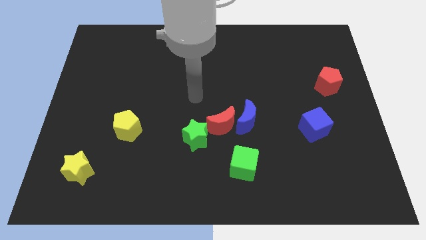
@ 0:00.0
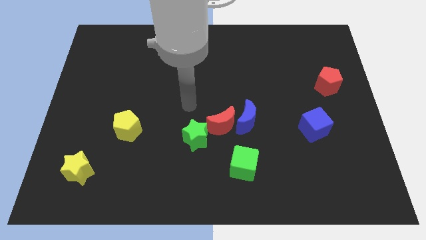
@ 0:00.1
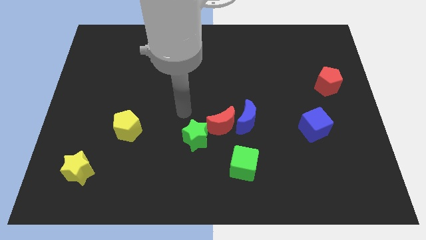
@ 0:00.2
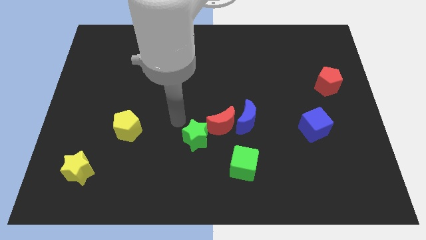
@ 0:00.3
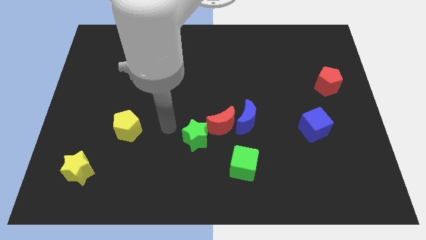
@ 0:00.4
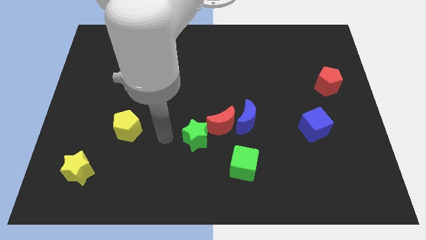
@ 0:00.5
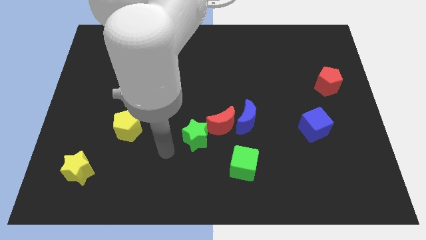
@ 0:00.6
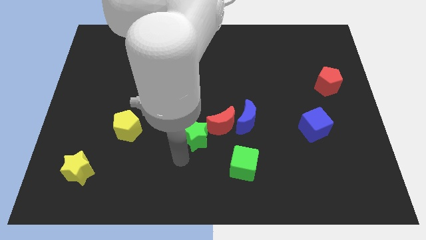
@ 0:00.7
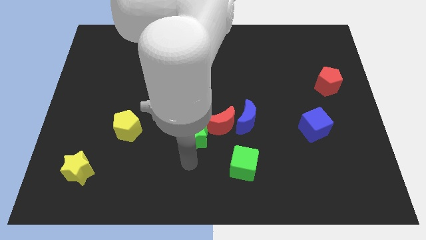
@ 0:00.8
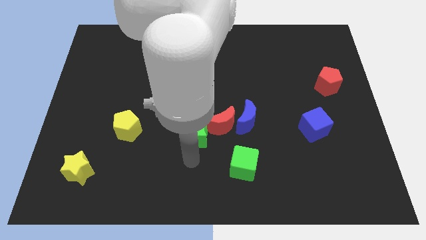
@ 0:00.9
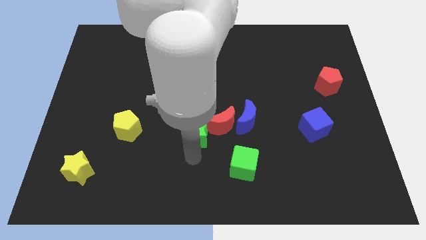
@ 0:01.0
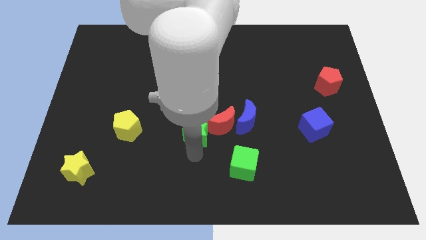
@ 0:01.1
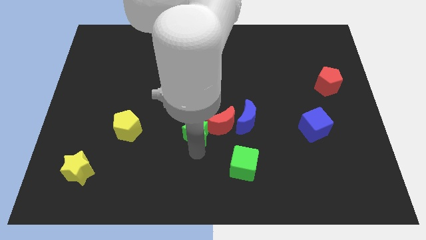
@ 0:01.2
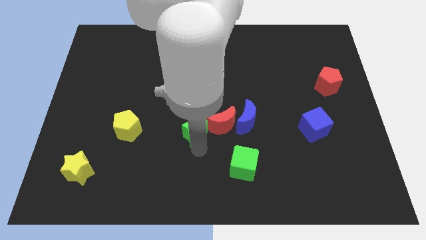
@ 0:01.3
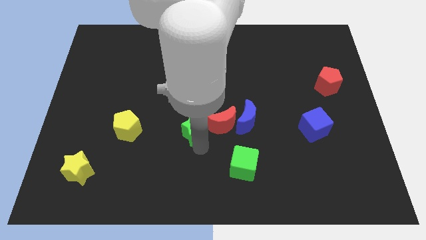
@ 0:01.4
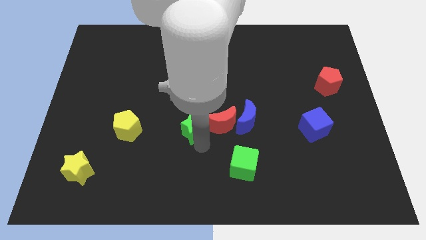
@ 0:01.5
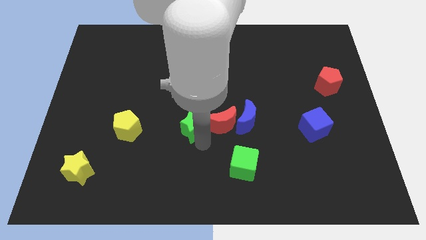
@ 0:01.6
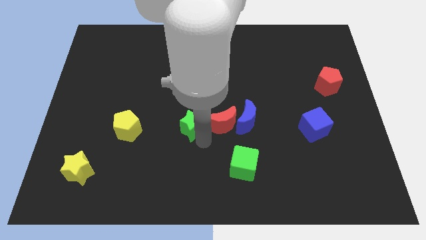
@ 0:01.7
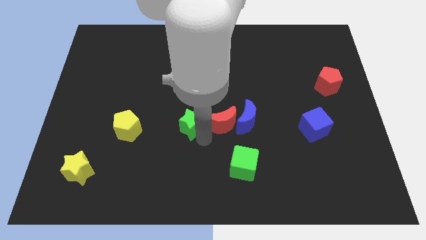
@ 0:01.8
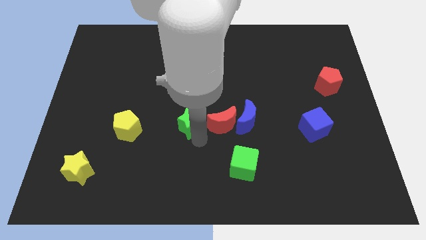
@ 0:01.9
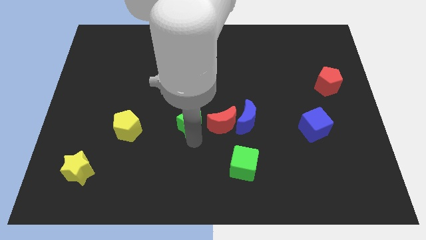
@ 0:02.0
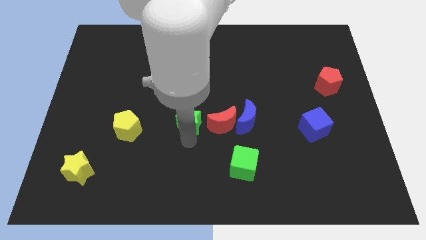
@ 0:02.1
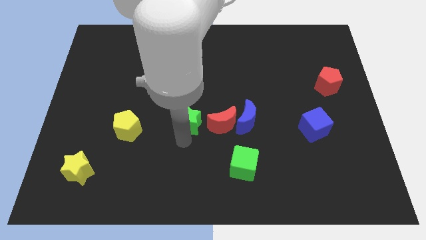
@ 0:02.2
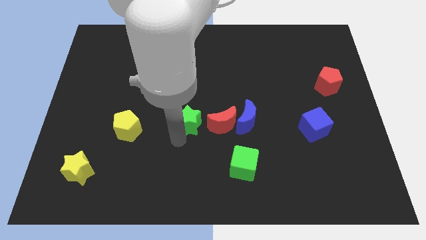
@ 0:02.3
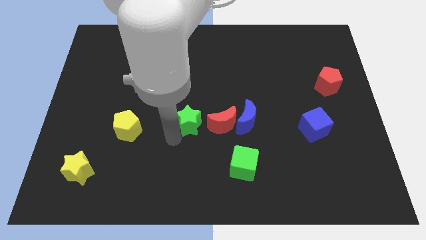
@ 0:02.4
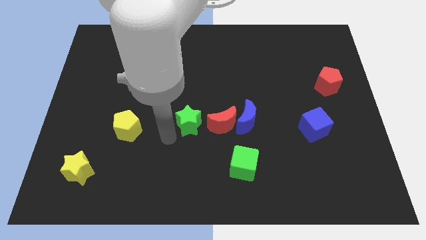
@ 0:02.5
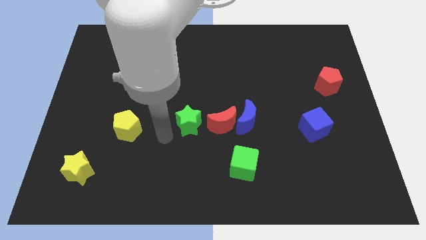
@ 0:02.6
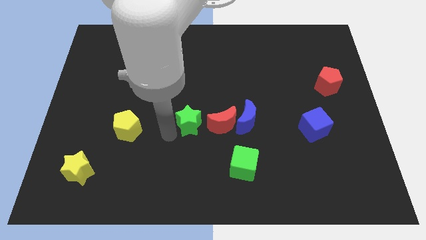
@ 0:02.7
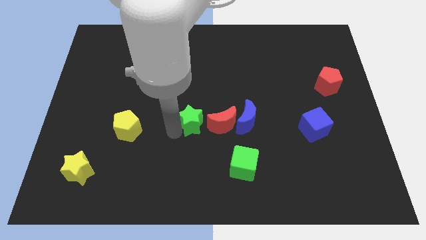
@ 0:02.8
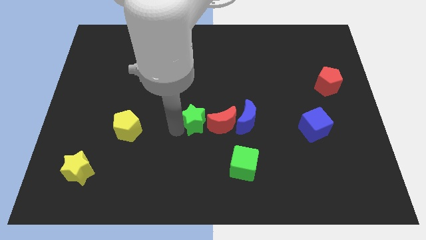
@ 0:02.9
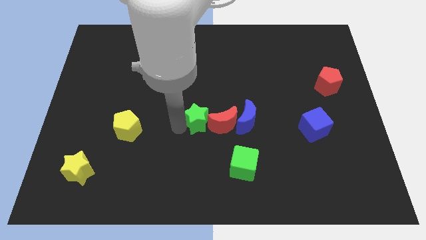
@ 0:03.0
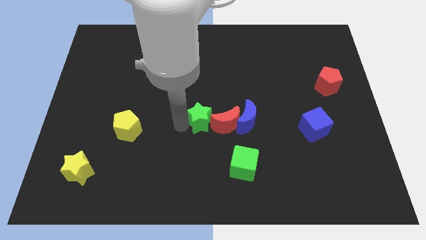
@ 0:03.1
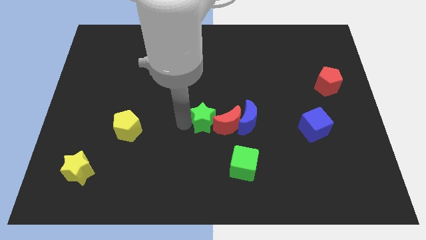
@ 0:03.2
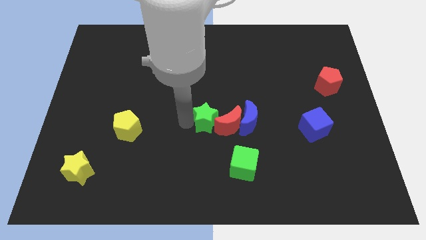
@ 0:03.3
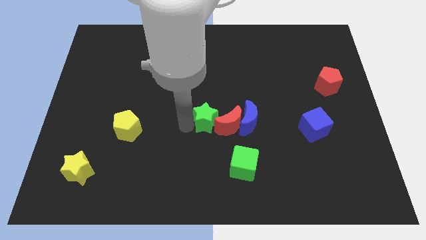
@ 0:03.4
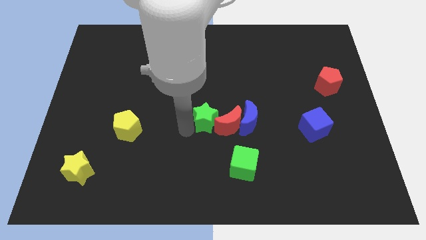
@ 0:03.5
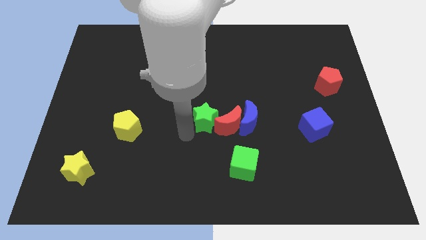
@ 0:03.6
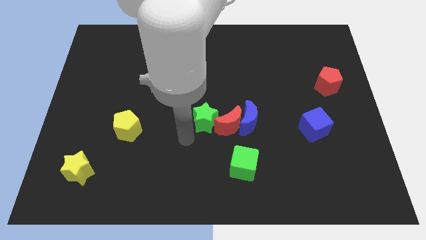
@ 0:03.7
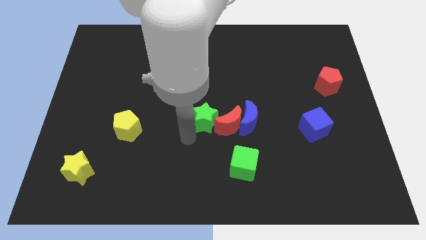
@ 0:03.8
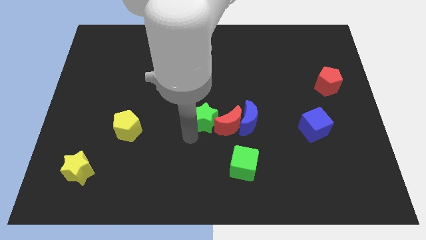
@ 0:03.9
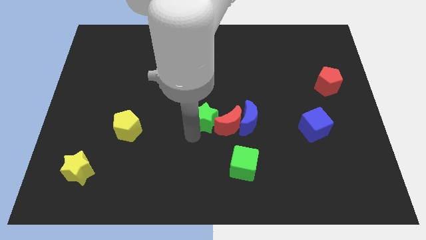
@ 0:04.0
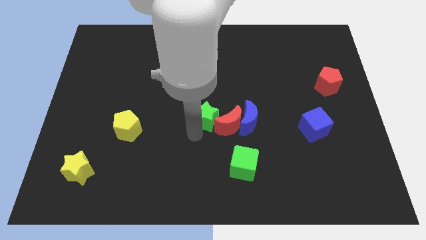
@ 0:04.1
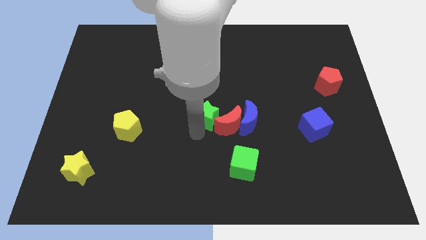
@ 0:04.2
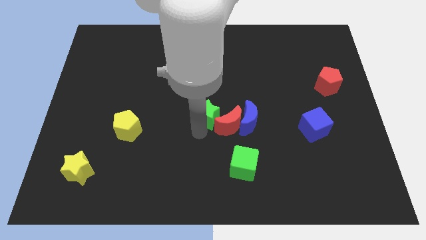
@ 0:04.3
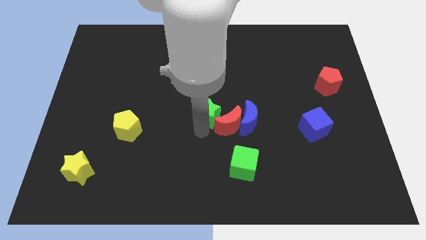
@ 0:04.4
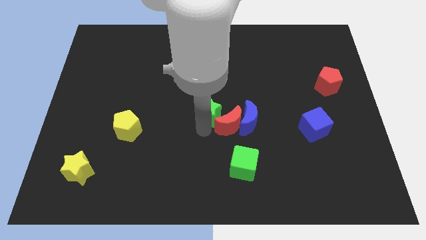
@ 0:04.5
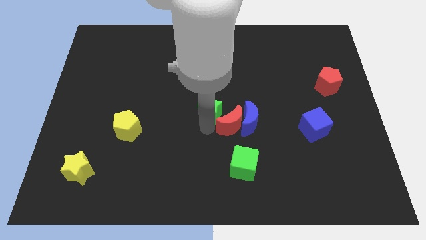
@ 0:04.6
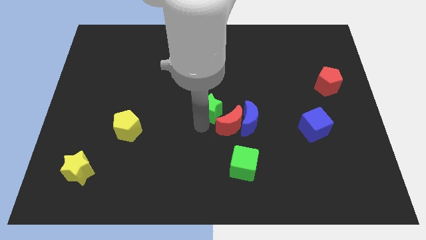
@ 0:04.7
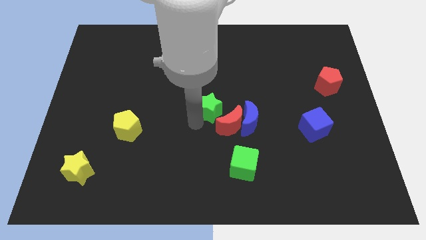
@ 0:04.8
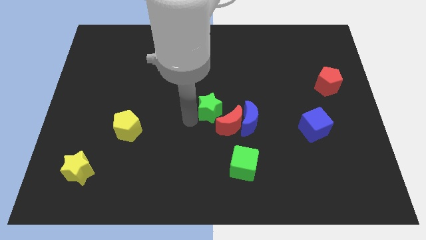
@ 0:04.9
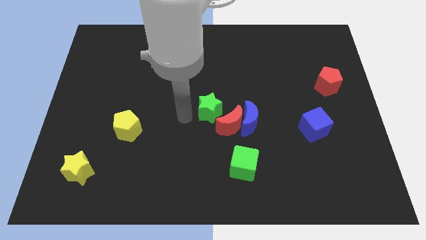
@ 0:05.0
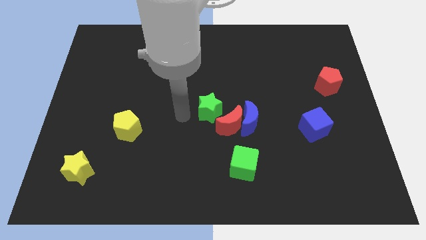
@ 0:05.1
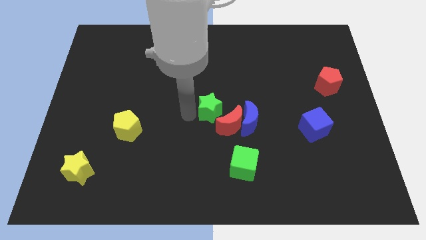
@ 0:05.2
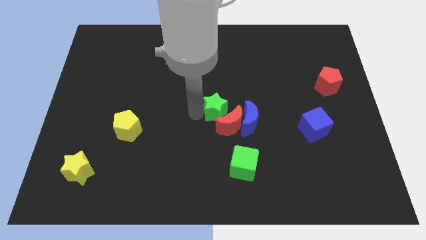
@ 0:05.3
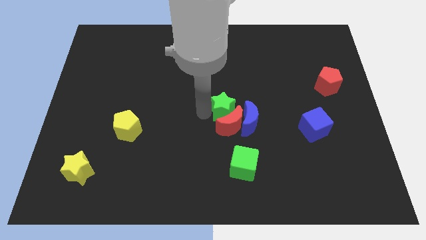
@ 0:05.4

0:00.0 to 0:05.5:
move the green star to the top side of the green cube

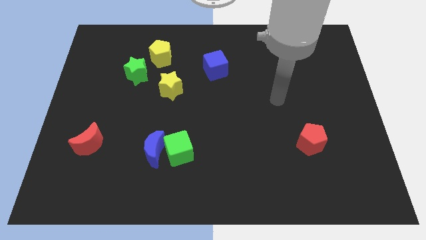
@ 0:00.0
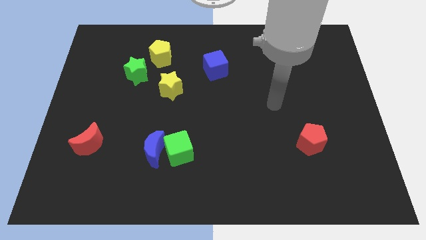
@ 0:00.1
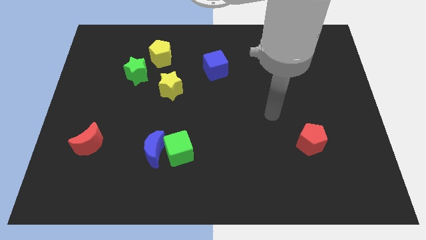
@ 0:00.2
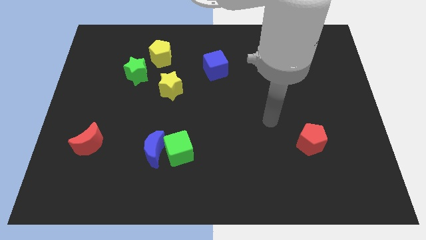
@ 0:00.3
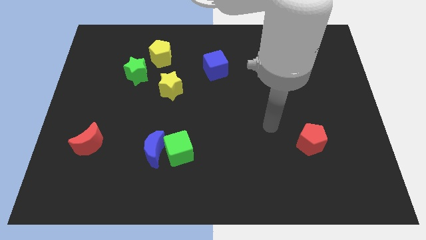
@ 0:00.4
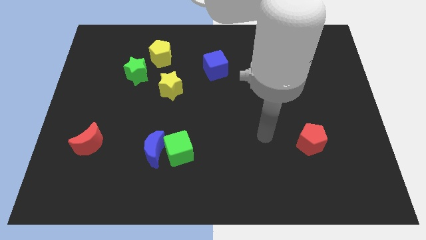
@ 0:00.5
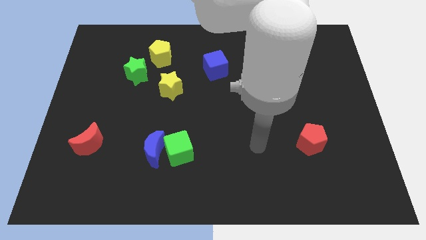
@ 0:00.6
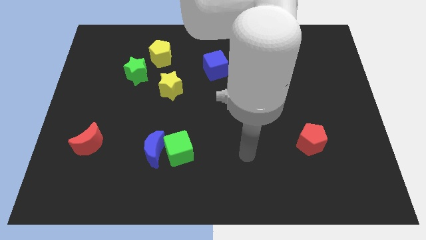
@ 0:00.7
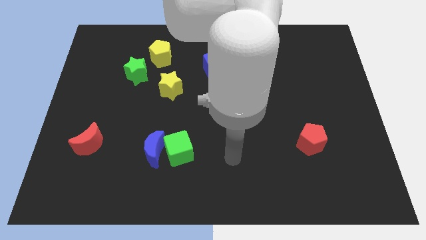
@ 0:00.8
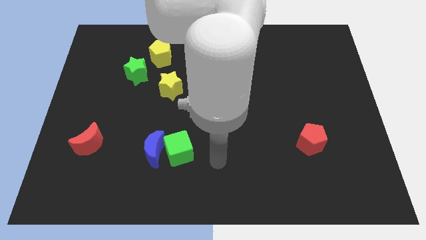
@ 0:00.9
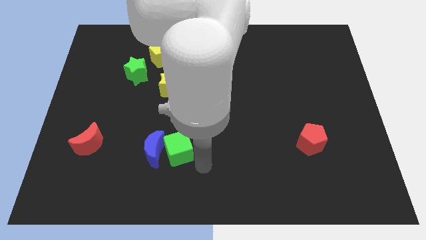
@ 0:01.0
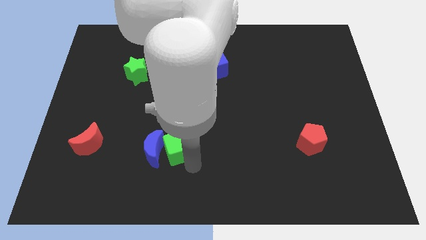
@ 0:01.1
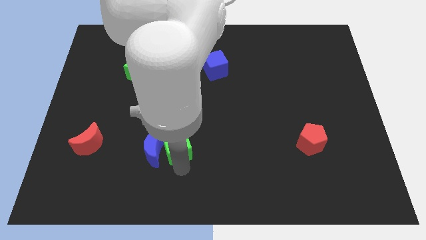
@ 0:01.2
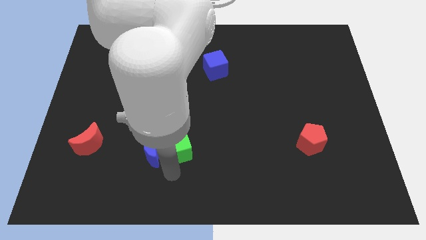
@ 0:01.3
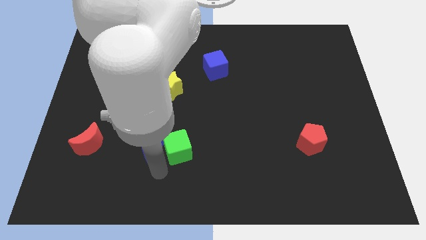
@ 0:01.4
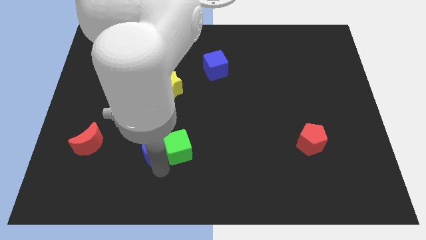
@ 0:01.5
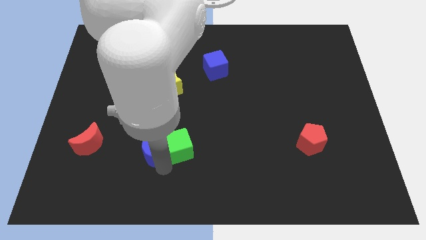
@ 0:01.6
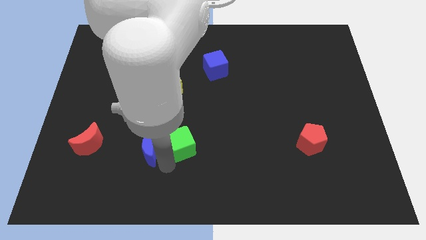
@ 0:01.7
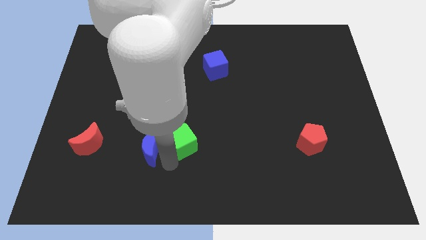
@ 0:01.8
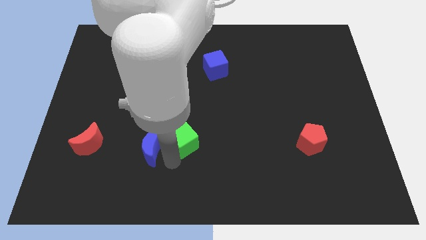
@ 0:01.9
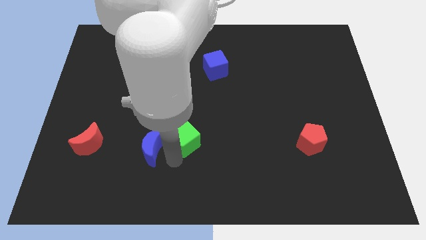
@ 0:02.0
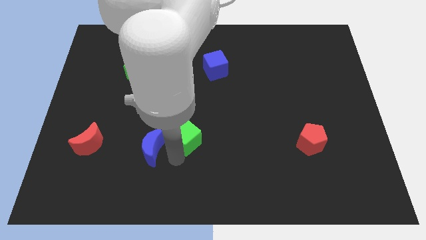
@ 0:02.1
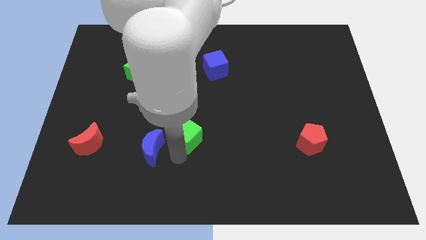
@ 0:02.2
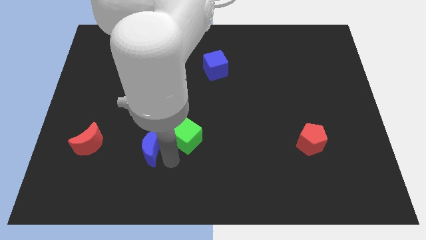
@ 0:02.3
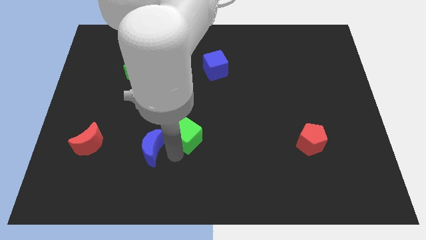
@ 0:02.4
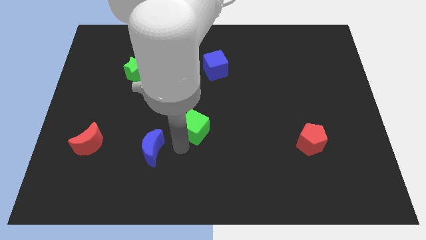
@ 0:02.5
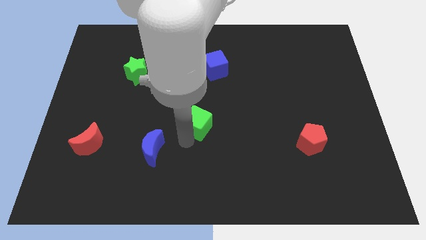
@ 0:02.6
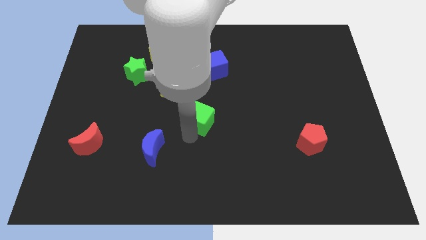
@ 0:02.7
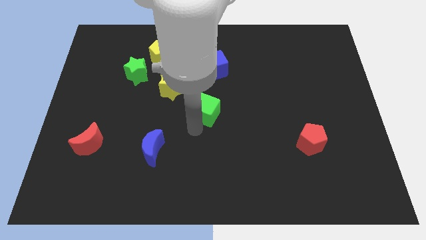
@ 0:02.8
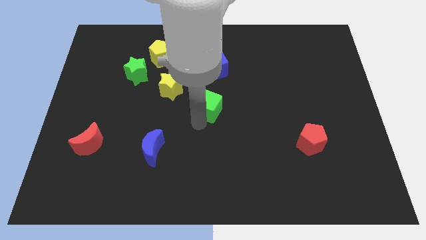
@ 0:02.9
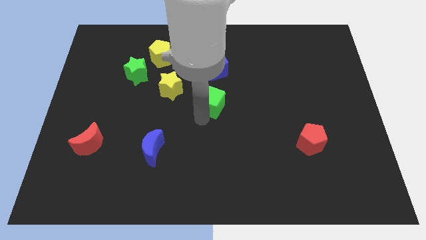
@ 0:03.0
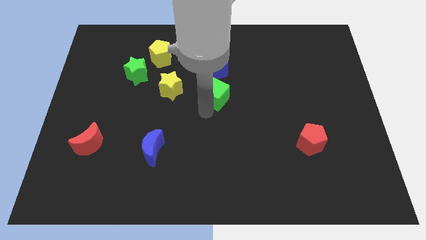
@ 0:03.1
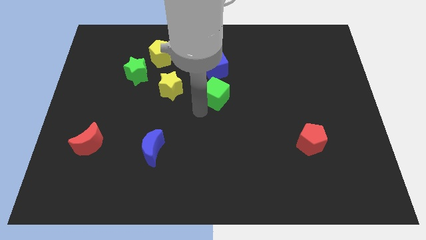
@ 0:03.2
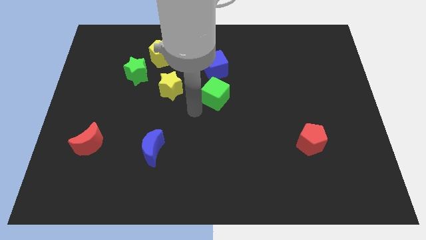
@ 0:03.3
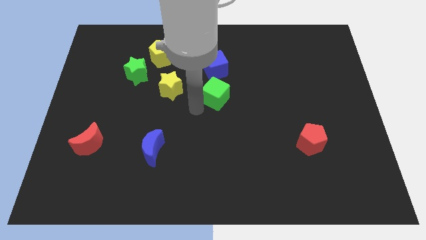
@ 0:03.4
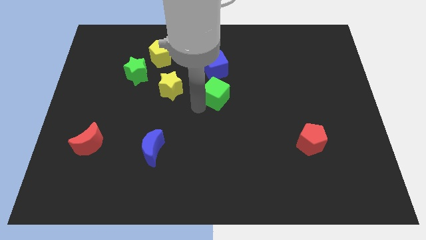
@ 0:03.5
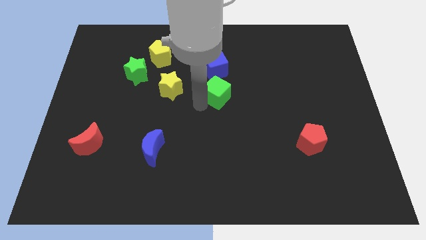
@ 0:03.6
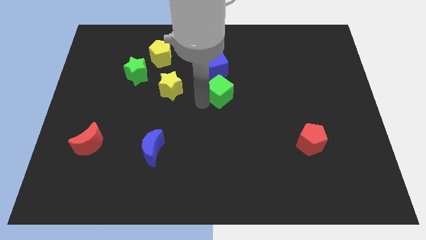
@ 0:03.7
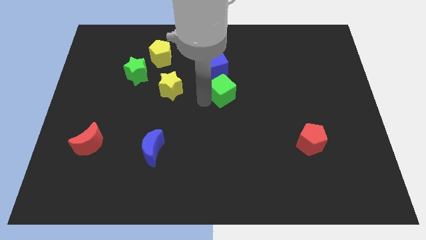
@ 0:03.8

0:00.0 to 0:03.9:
move the green cube to the bottom right side of the blue cube
